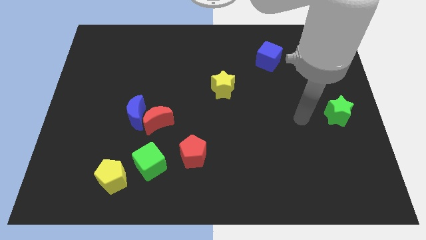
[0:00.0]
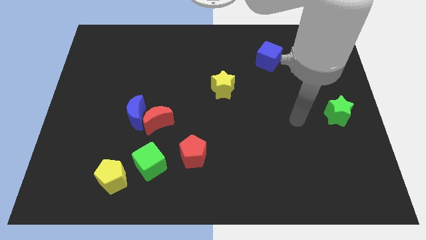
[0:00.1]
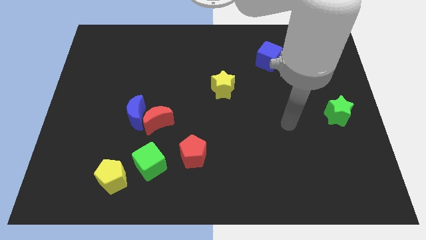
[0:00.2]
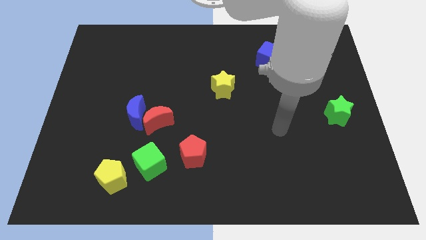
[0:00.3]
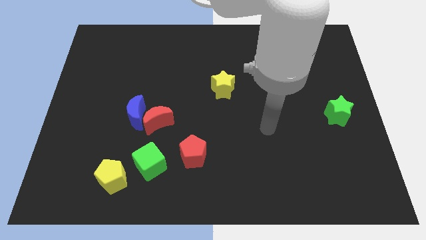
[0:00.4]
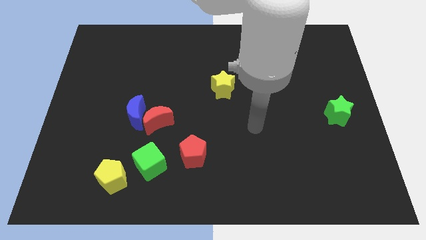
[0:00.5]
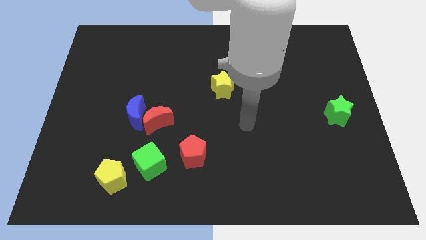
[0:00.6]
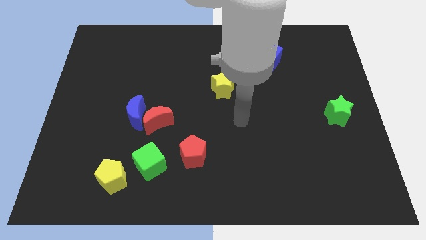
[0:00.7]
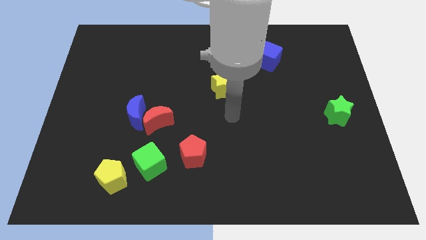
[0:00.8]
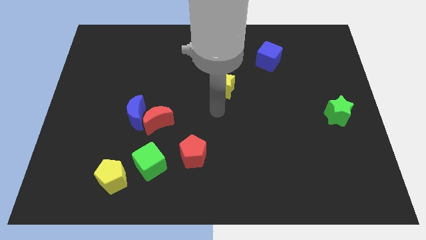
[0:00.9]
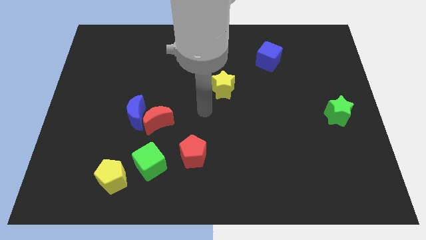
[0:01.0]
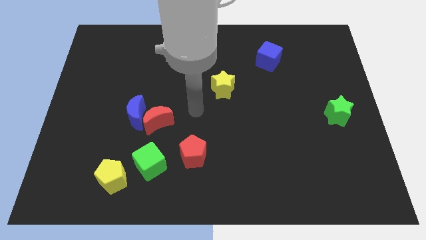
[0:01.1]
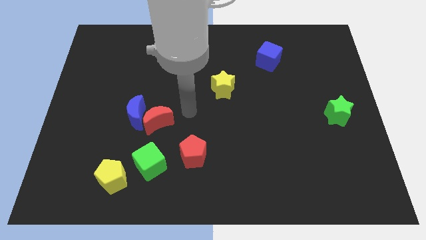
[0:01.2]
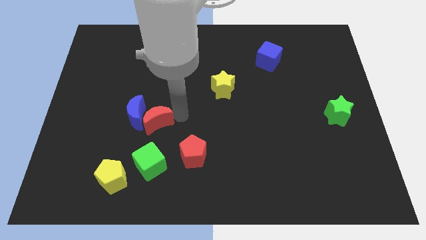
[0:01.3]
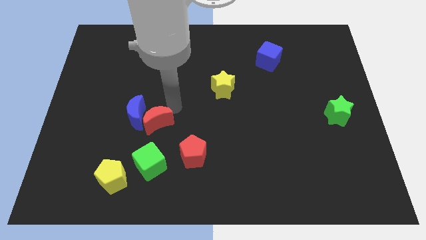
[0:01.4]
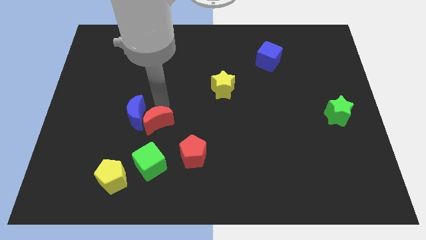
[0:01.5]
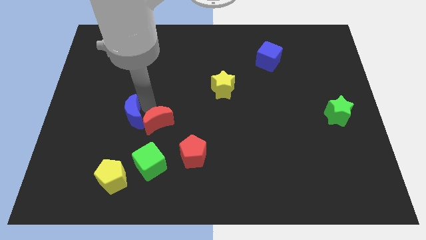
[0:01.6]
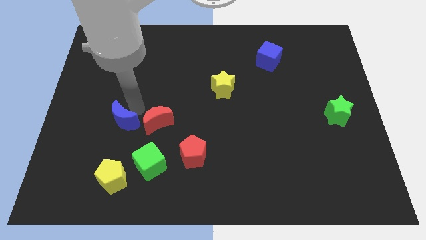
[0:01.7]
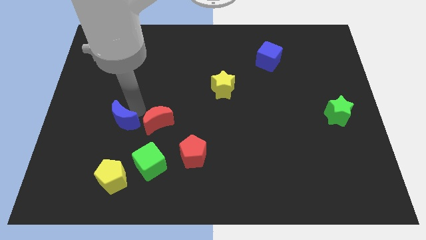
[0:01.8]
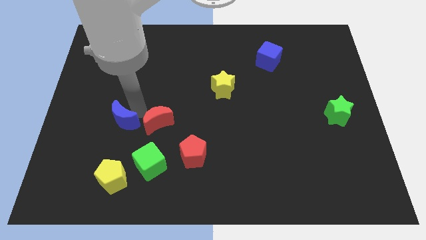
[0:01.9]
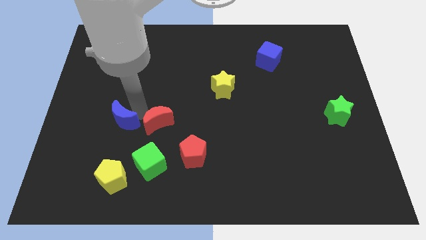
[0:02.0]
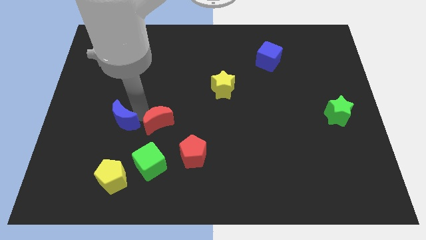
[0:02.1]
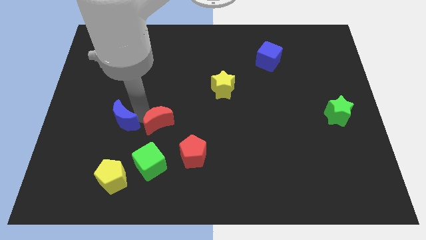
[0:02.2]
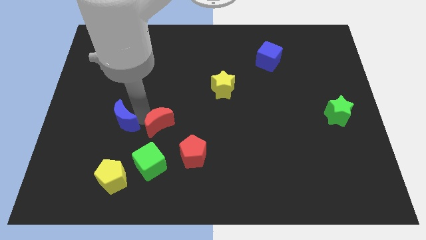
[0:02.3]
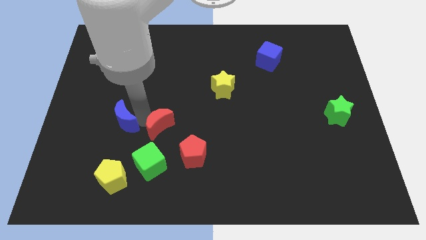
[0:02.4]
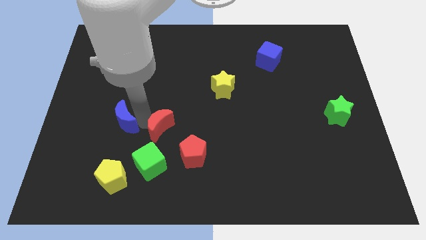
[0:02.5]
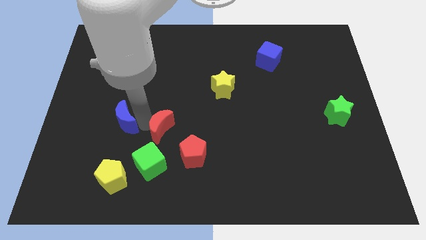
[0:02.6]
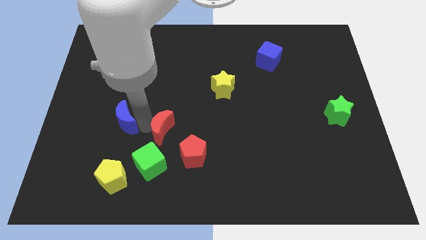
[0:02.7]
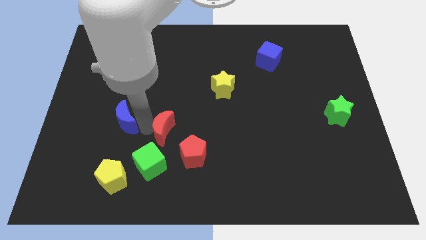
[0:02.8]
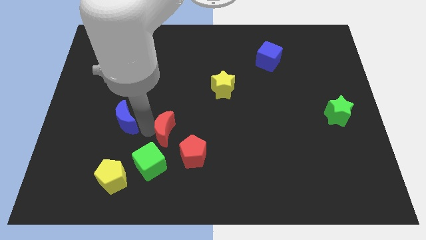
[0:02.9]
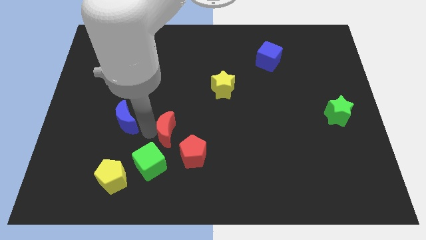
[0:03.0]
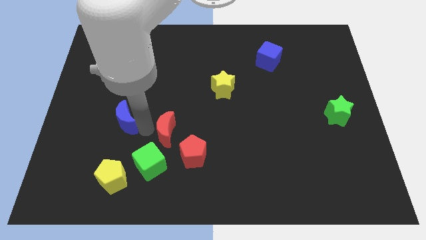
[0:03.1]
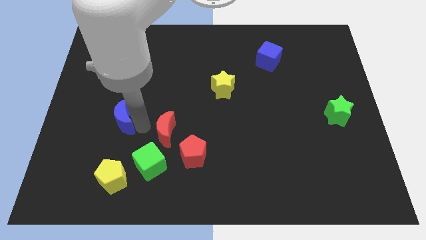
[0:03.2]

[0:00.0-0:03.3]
move the red moon away from the blue moon

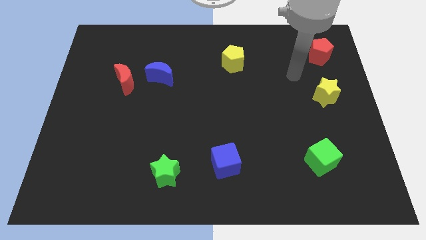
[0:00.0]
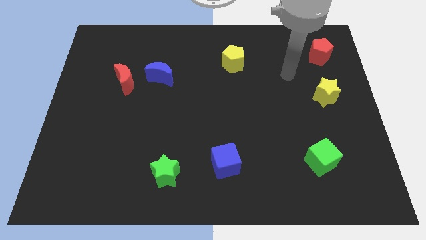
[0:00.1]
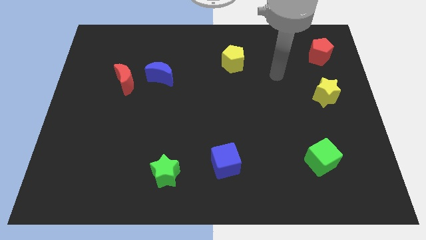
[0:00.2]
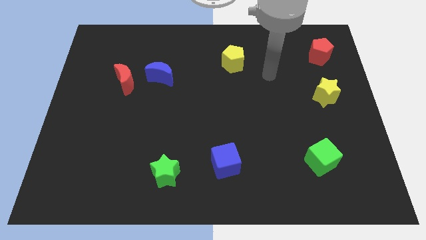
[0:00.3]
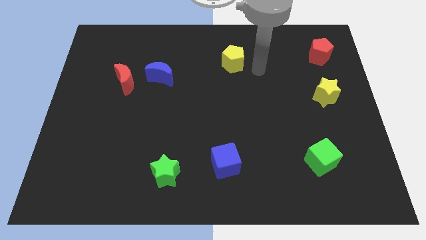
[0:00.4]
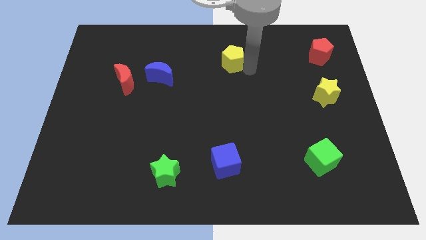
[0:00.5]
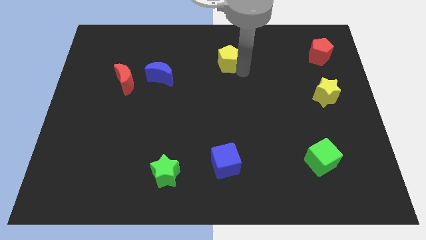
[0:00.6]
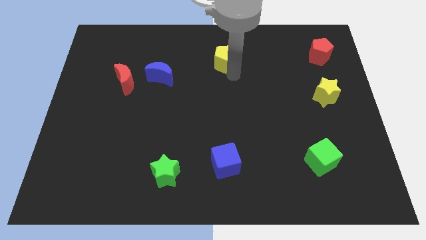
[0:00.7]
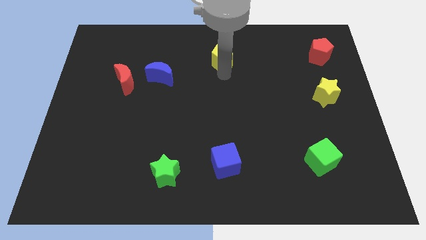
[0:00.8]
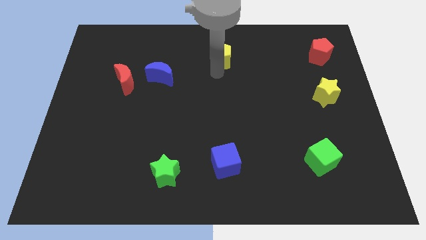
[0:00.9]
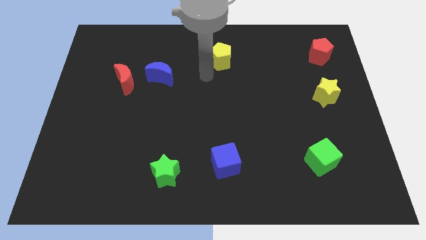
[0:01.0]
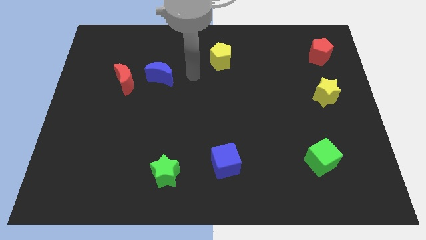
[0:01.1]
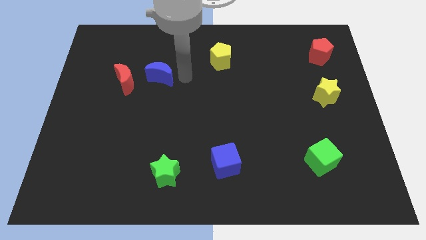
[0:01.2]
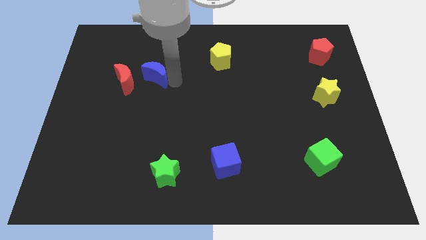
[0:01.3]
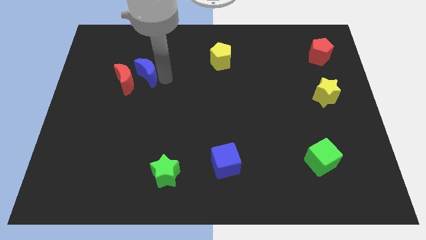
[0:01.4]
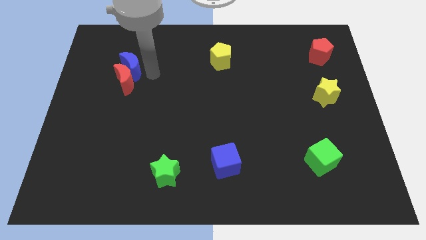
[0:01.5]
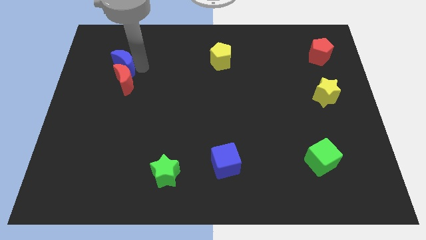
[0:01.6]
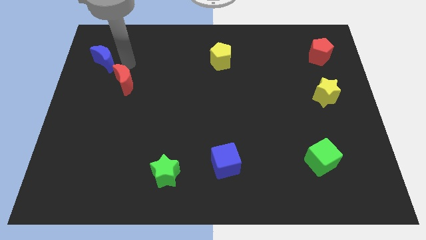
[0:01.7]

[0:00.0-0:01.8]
separate the red moon from the blue moon

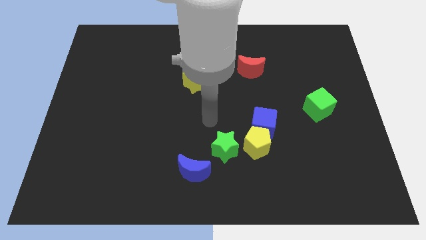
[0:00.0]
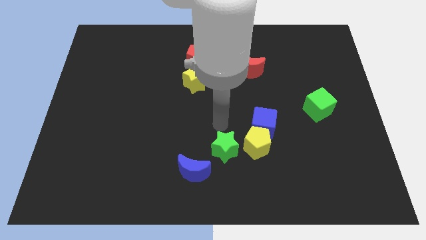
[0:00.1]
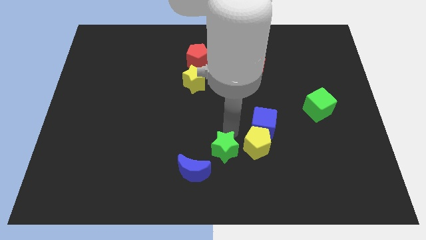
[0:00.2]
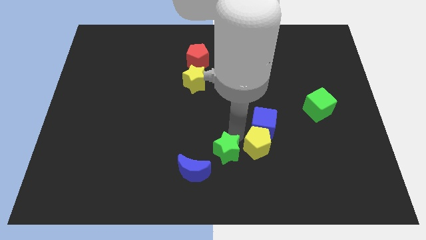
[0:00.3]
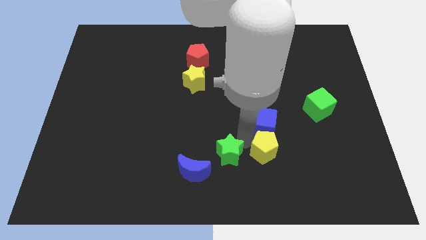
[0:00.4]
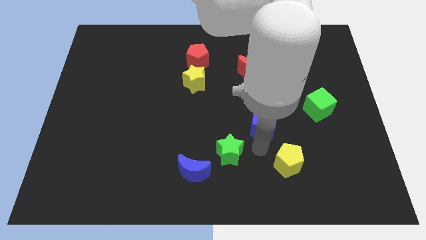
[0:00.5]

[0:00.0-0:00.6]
separate the blue cube from the yellow pentagon

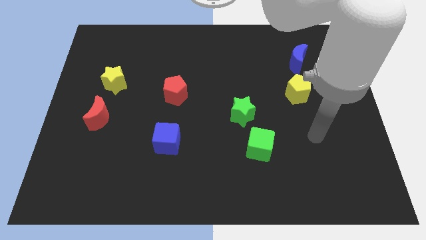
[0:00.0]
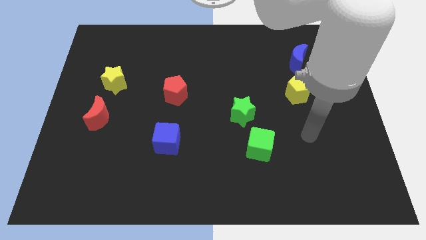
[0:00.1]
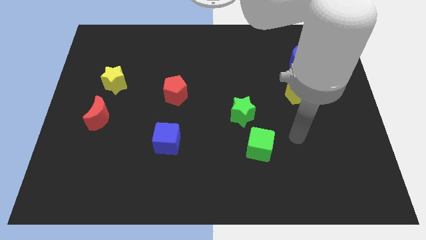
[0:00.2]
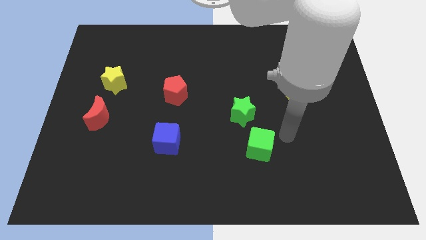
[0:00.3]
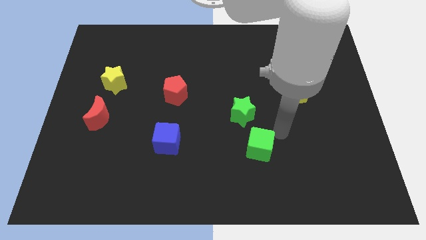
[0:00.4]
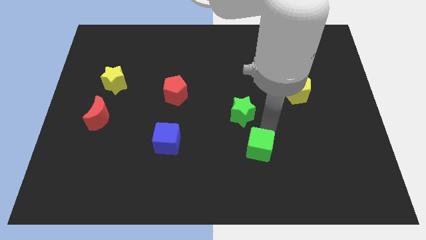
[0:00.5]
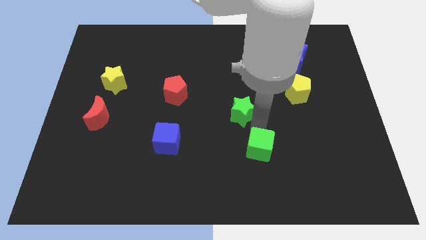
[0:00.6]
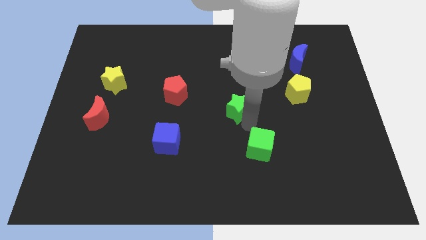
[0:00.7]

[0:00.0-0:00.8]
move the green cube away from the green star

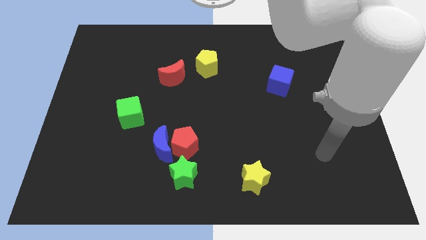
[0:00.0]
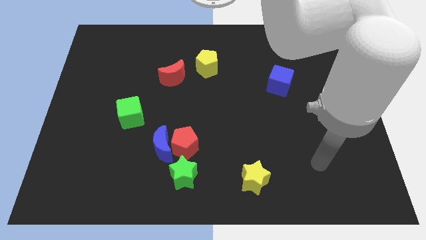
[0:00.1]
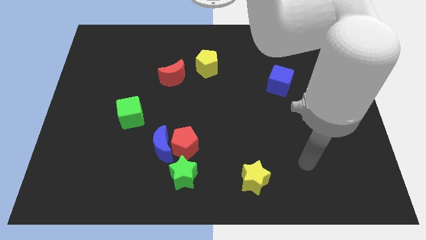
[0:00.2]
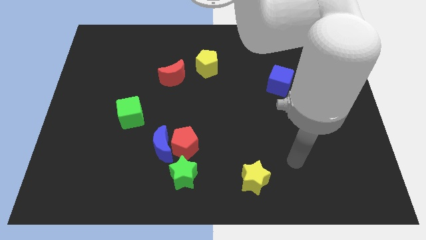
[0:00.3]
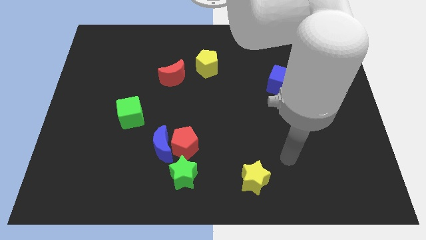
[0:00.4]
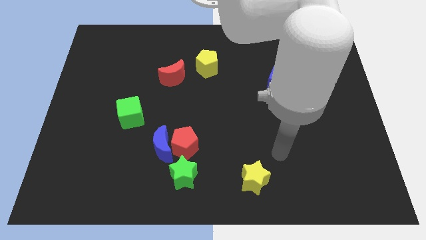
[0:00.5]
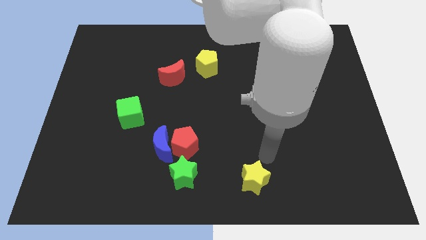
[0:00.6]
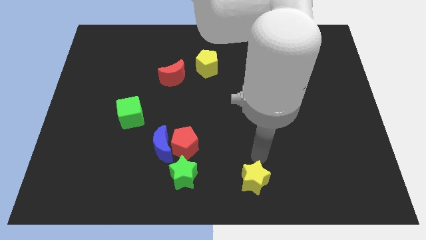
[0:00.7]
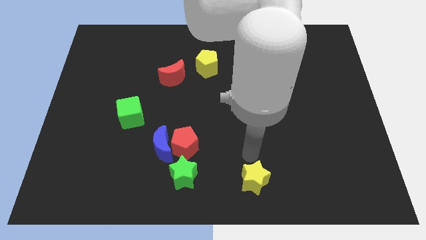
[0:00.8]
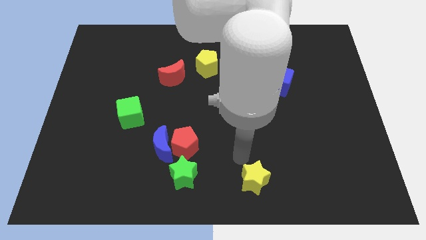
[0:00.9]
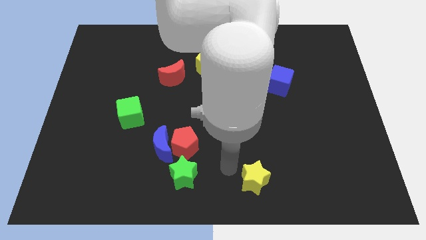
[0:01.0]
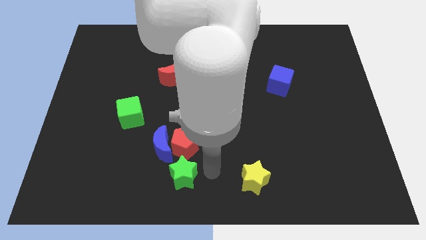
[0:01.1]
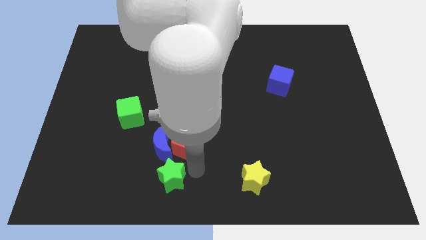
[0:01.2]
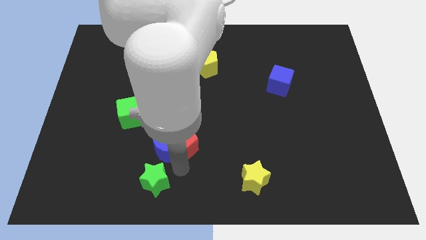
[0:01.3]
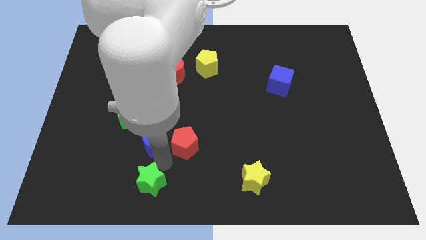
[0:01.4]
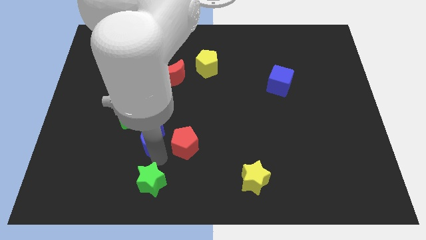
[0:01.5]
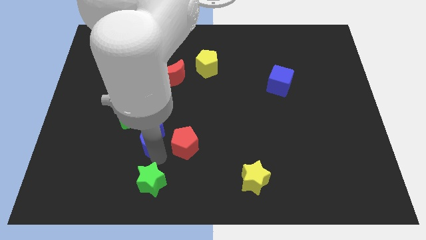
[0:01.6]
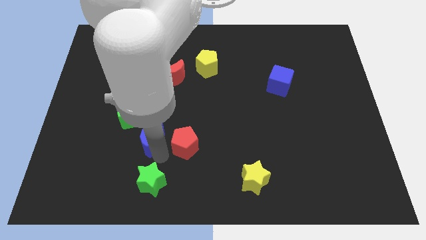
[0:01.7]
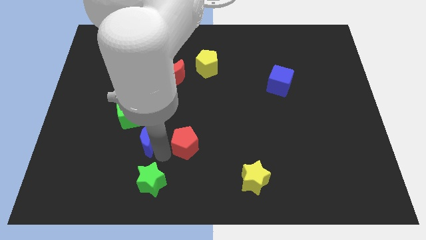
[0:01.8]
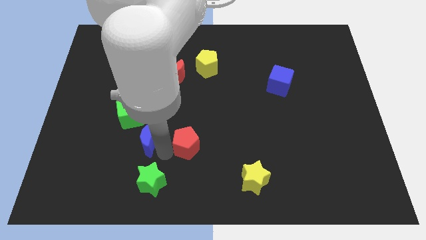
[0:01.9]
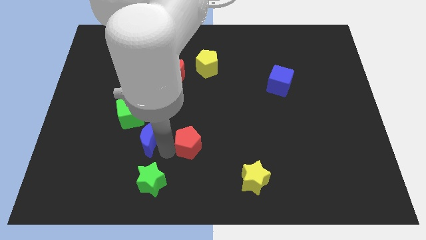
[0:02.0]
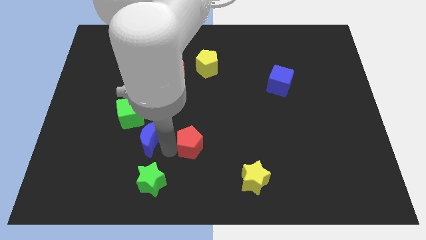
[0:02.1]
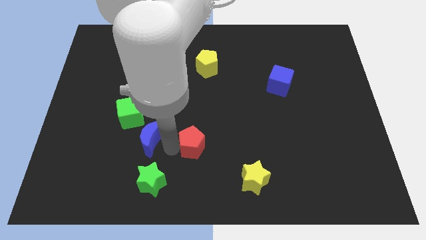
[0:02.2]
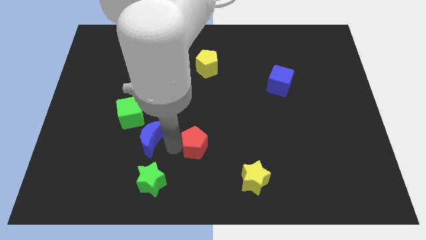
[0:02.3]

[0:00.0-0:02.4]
pull the red pentagon apart from the blue moon and green star

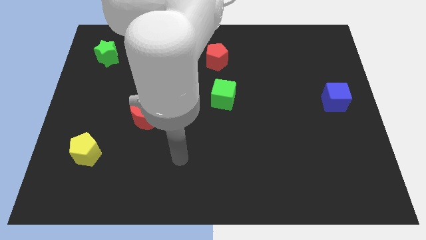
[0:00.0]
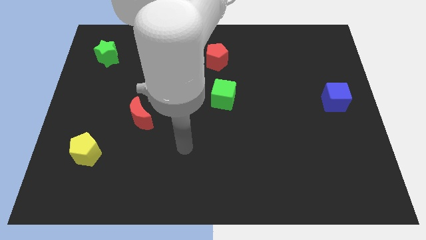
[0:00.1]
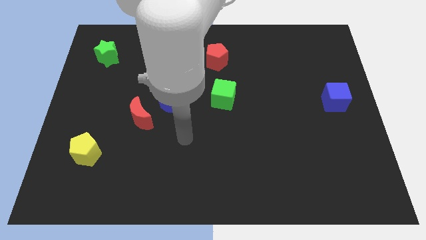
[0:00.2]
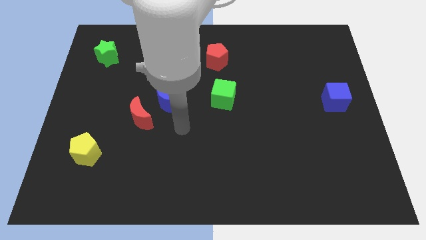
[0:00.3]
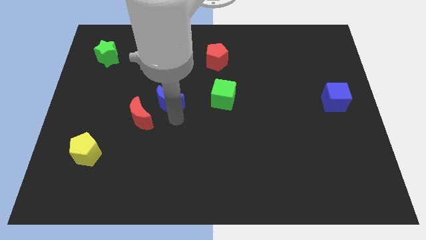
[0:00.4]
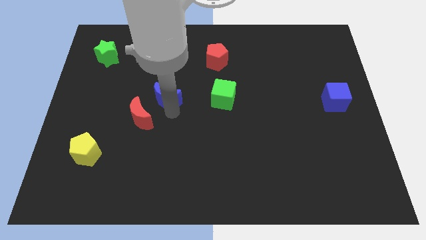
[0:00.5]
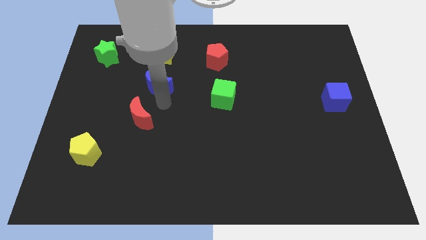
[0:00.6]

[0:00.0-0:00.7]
pull the red moon apart from the blue moon
